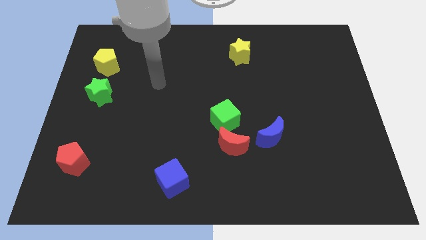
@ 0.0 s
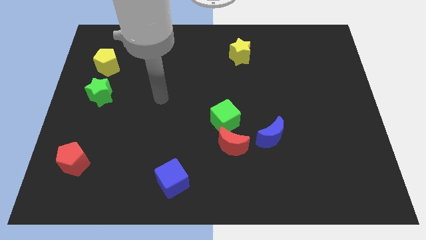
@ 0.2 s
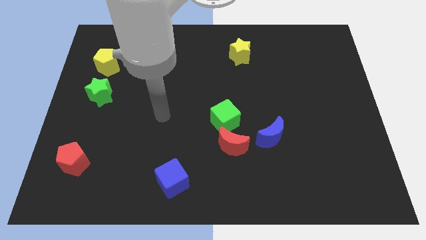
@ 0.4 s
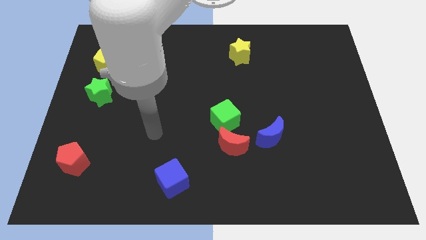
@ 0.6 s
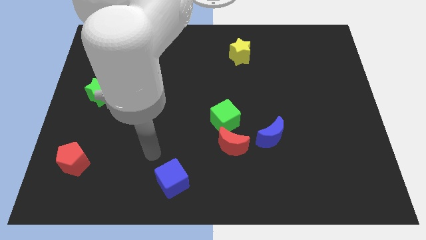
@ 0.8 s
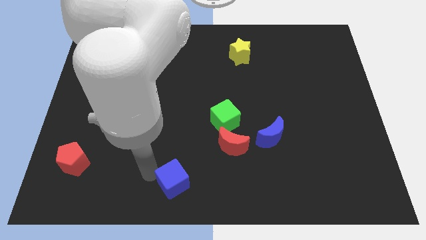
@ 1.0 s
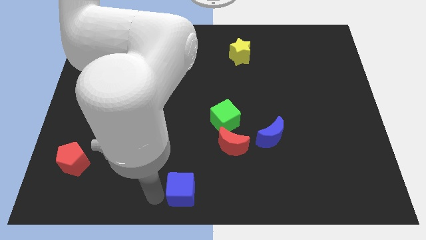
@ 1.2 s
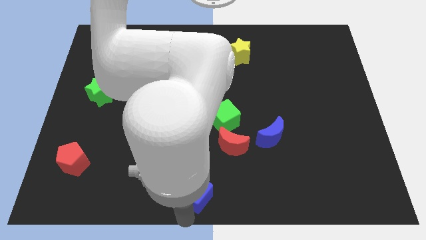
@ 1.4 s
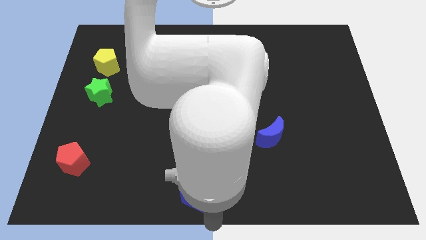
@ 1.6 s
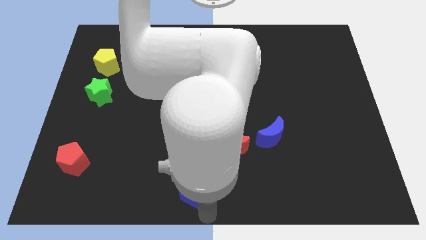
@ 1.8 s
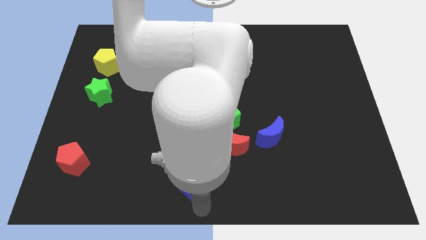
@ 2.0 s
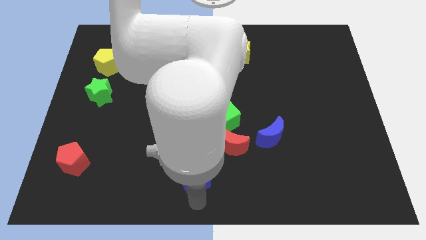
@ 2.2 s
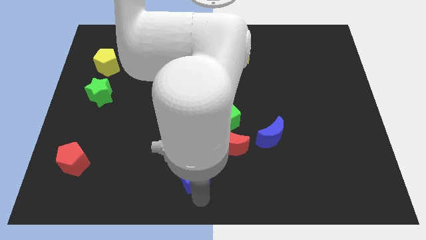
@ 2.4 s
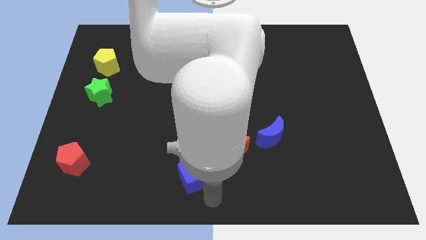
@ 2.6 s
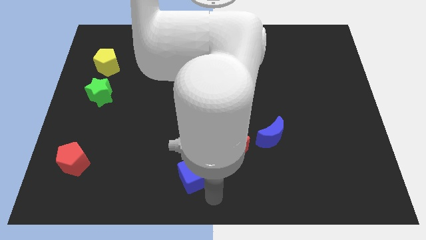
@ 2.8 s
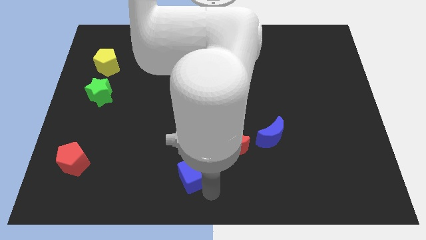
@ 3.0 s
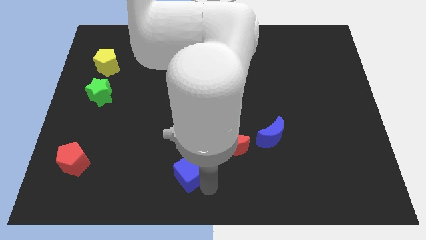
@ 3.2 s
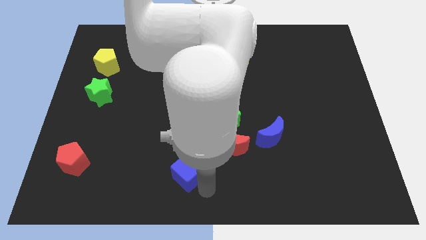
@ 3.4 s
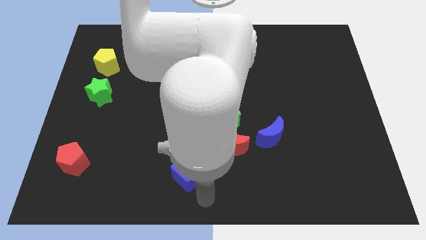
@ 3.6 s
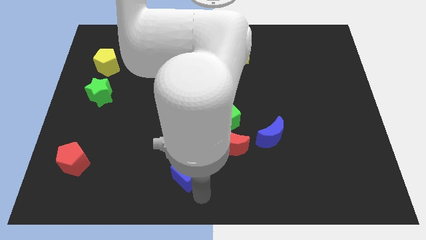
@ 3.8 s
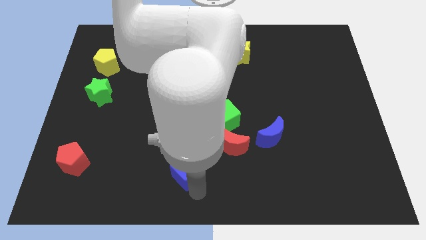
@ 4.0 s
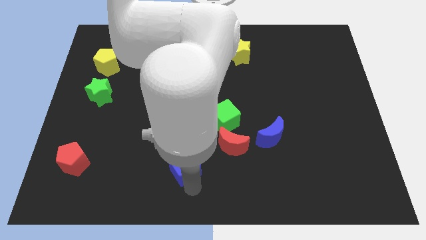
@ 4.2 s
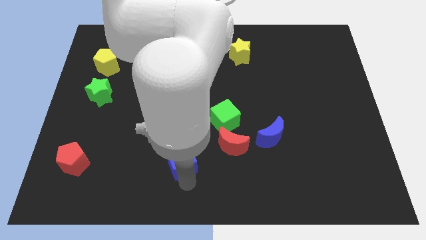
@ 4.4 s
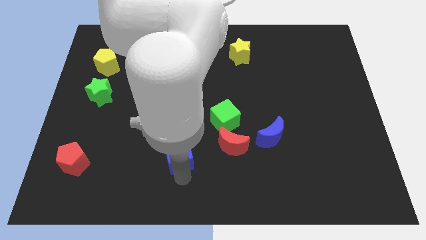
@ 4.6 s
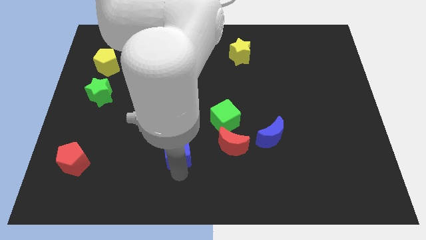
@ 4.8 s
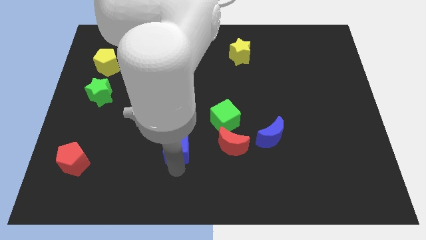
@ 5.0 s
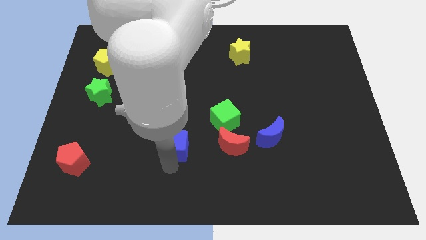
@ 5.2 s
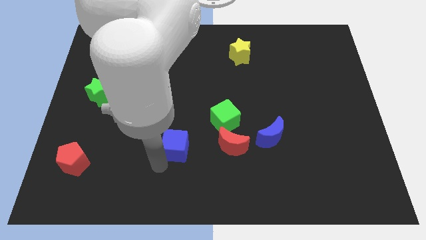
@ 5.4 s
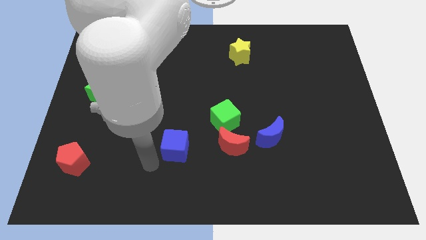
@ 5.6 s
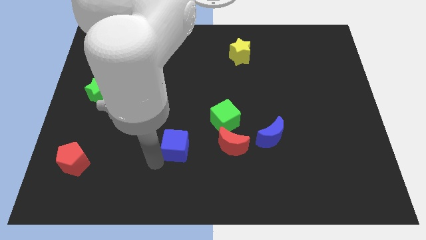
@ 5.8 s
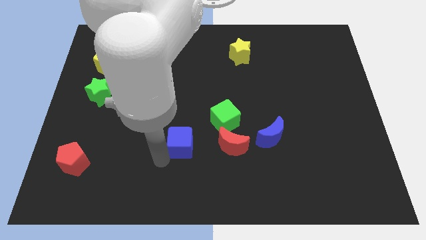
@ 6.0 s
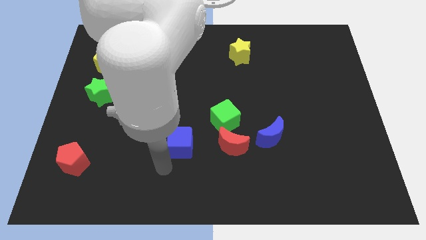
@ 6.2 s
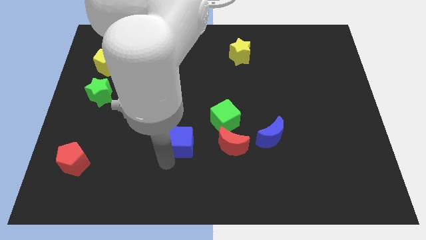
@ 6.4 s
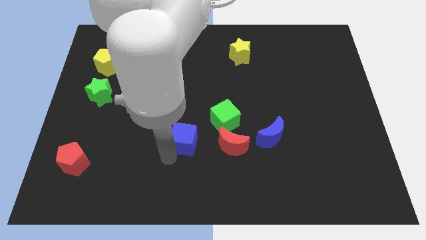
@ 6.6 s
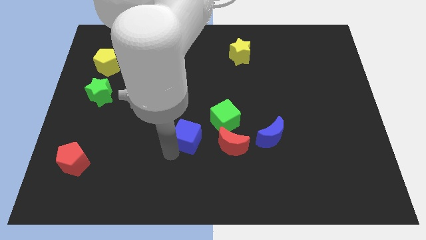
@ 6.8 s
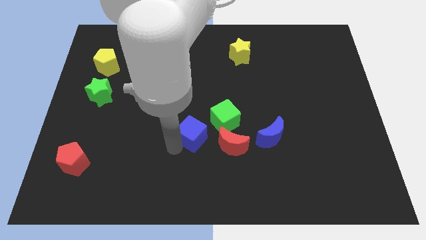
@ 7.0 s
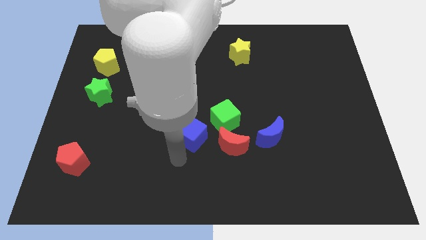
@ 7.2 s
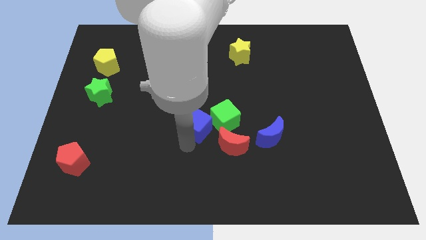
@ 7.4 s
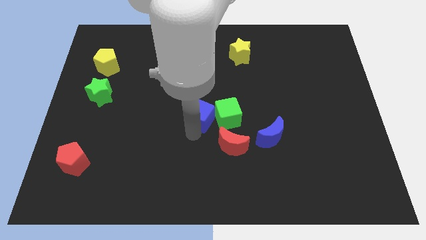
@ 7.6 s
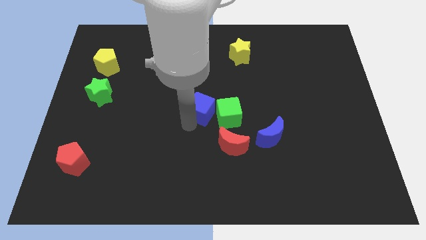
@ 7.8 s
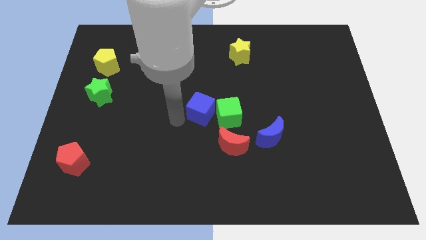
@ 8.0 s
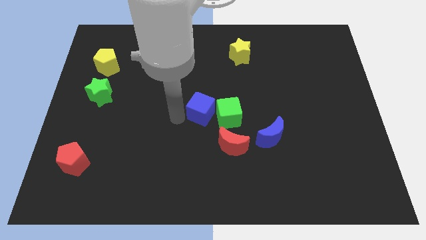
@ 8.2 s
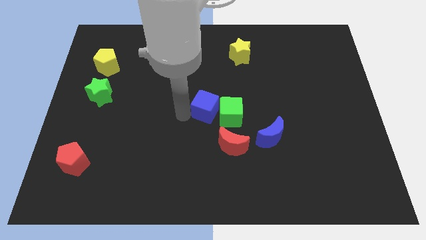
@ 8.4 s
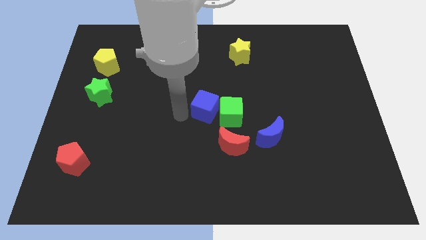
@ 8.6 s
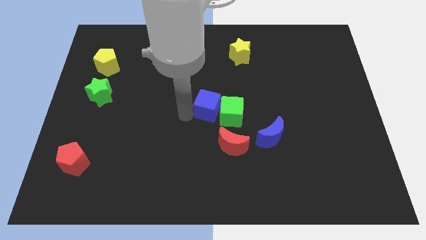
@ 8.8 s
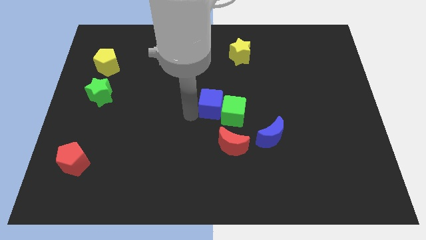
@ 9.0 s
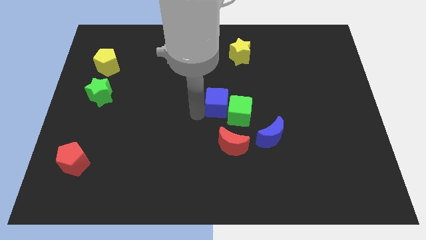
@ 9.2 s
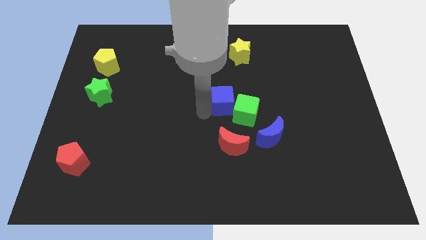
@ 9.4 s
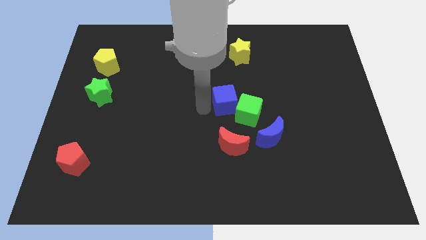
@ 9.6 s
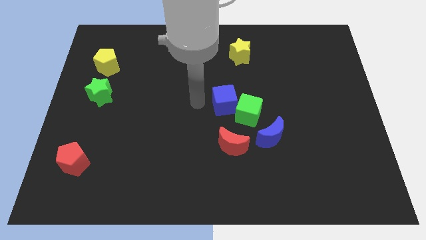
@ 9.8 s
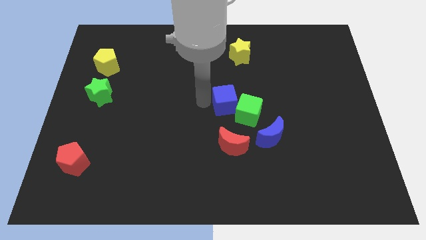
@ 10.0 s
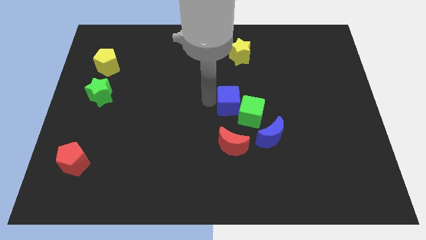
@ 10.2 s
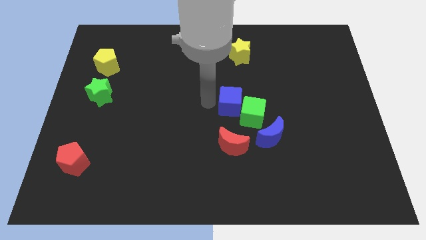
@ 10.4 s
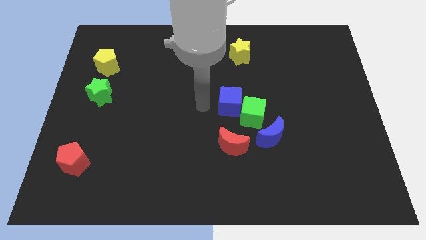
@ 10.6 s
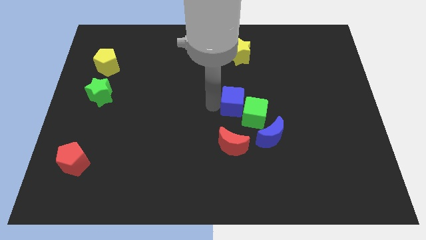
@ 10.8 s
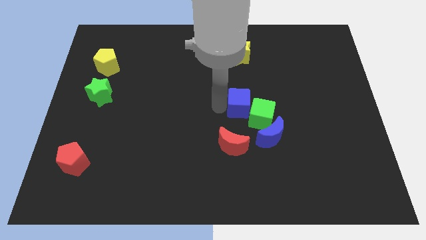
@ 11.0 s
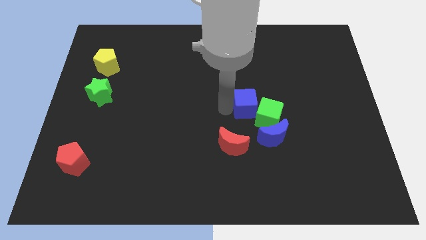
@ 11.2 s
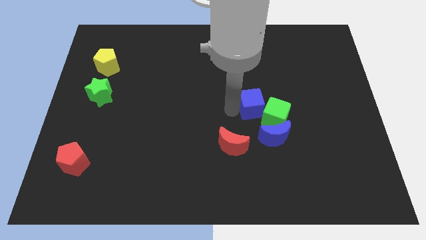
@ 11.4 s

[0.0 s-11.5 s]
move the blue cube to the top of the blue moon

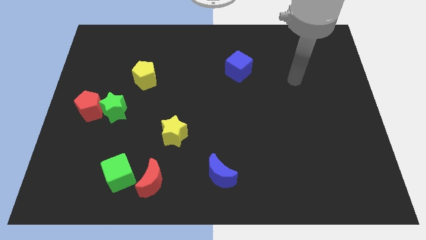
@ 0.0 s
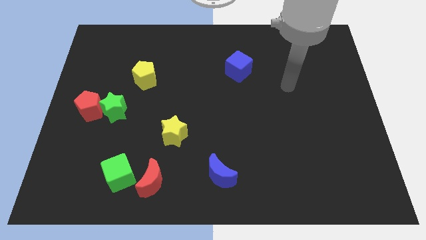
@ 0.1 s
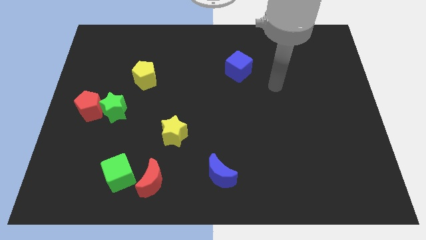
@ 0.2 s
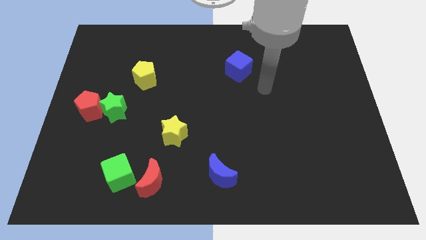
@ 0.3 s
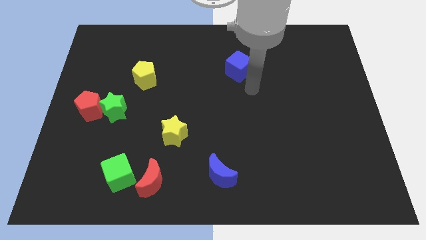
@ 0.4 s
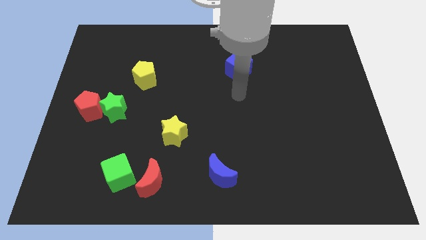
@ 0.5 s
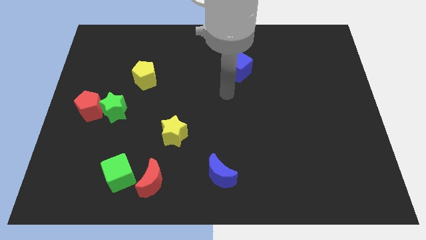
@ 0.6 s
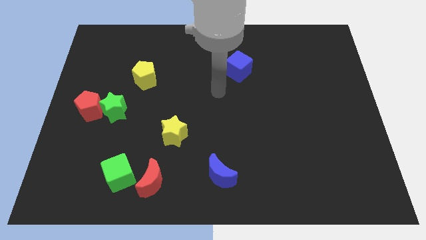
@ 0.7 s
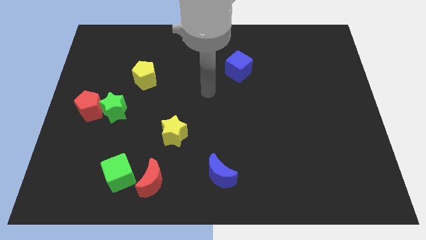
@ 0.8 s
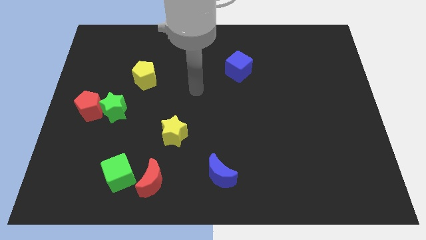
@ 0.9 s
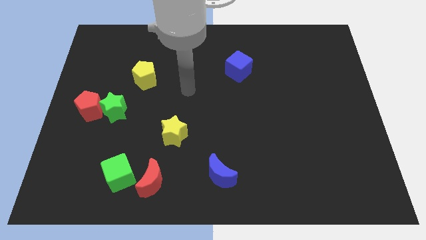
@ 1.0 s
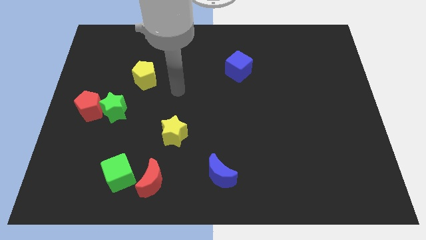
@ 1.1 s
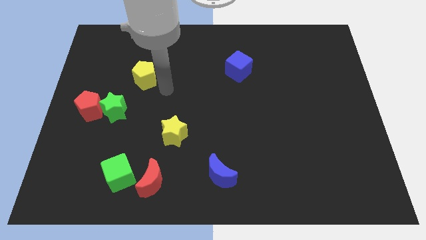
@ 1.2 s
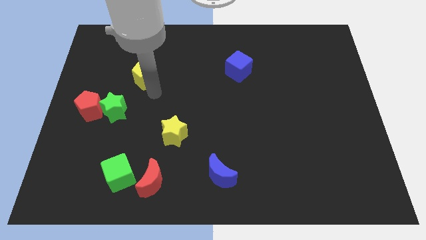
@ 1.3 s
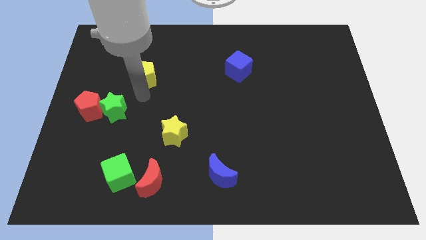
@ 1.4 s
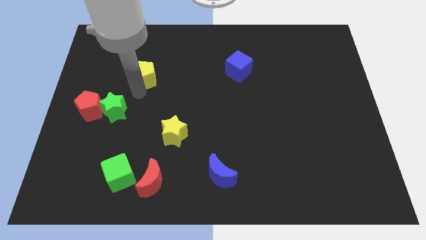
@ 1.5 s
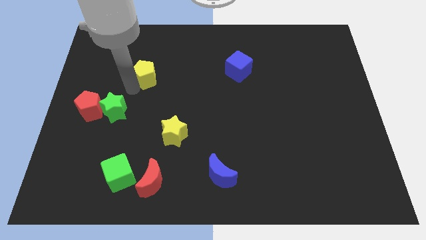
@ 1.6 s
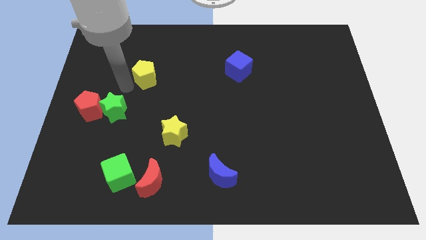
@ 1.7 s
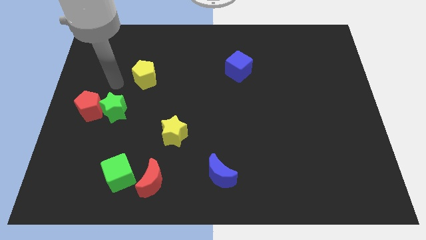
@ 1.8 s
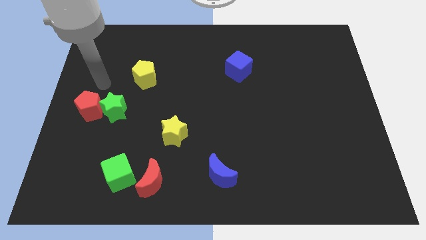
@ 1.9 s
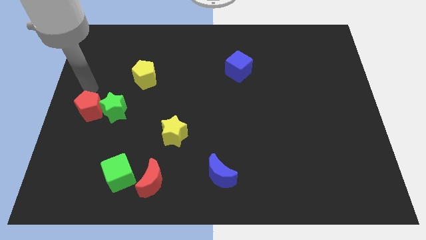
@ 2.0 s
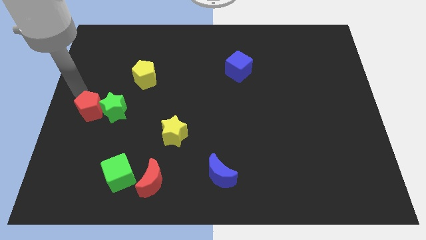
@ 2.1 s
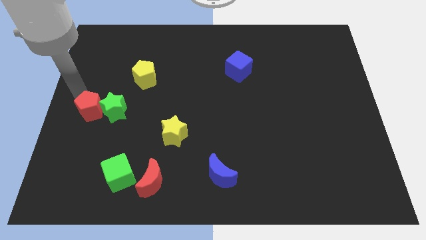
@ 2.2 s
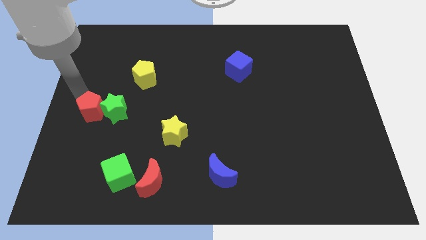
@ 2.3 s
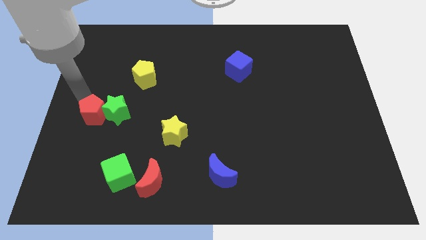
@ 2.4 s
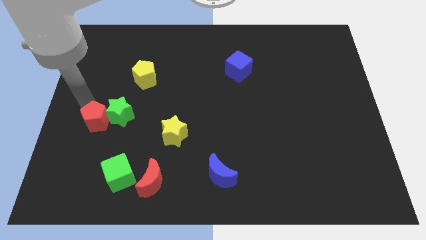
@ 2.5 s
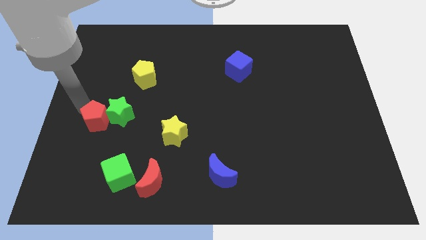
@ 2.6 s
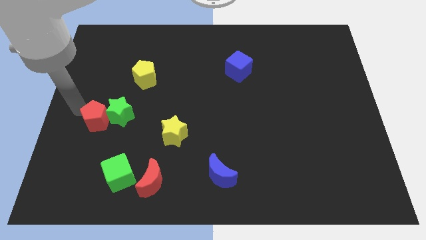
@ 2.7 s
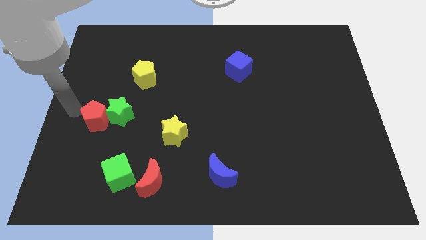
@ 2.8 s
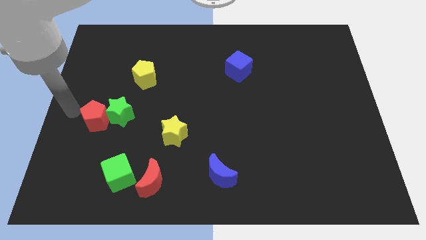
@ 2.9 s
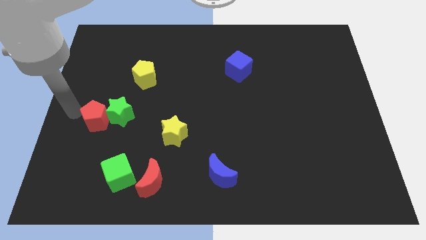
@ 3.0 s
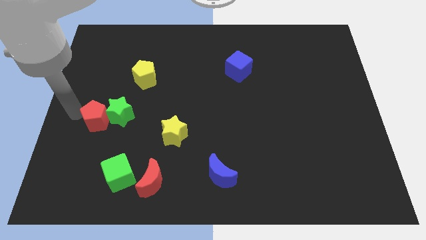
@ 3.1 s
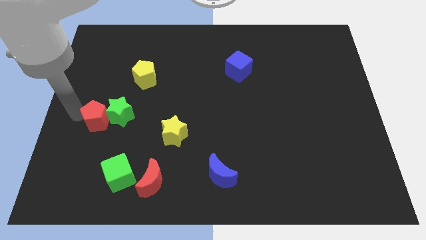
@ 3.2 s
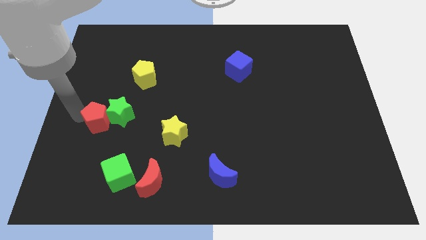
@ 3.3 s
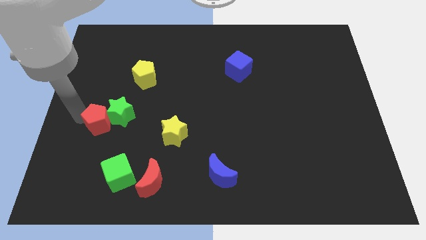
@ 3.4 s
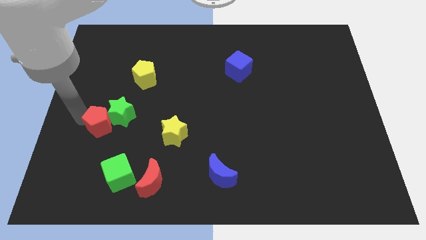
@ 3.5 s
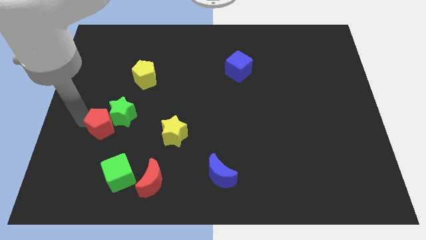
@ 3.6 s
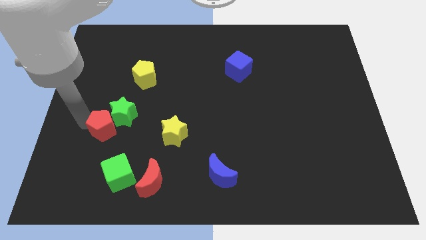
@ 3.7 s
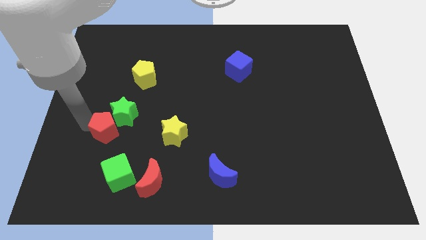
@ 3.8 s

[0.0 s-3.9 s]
slide the red pentagon to the left side of the yellow star
